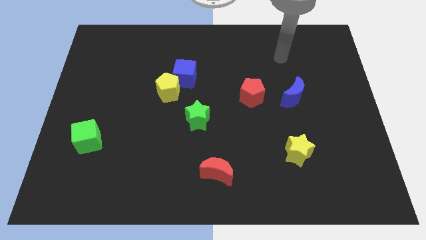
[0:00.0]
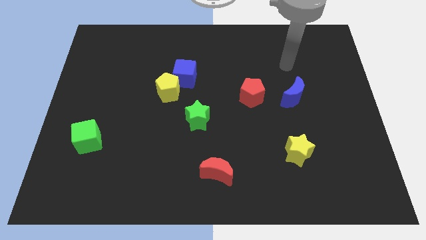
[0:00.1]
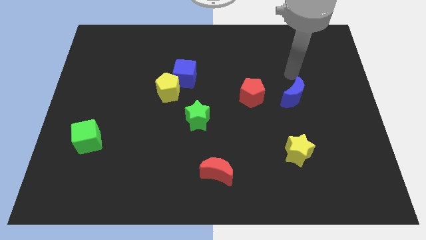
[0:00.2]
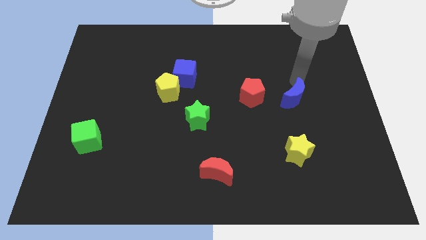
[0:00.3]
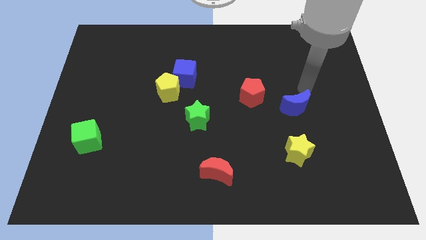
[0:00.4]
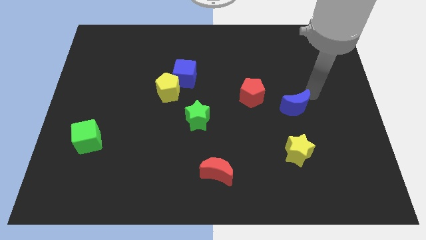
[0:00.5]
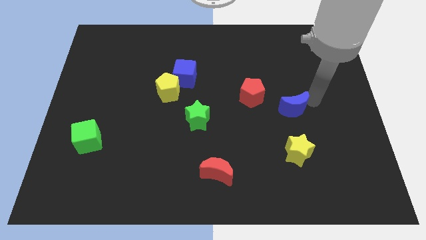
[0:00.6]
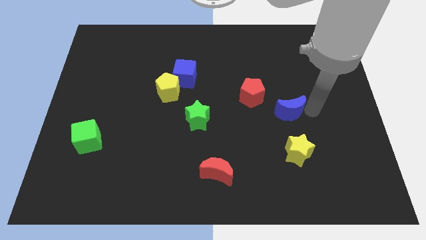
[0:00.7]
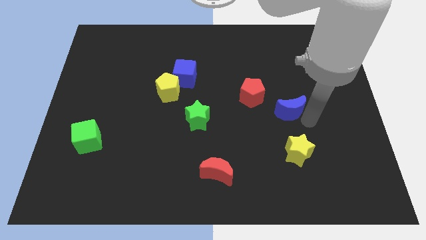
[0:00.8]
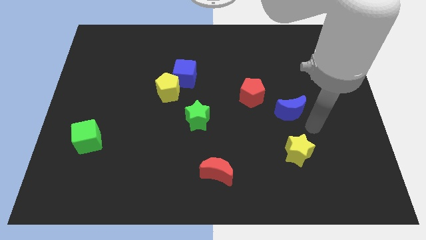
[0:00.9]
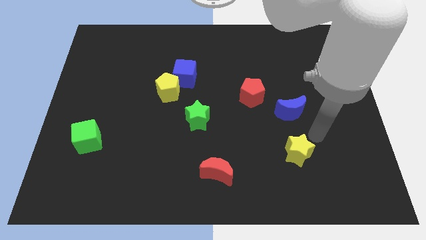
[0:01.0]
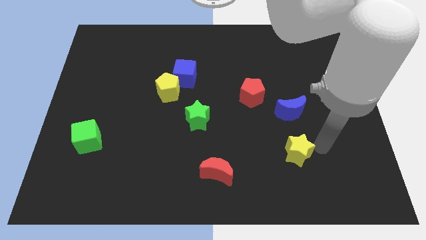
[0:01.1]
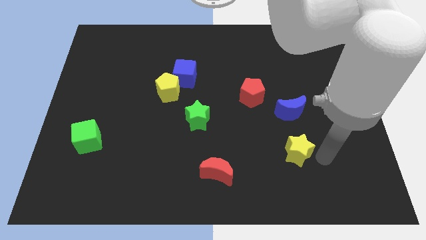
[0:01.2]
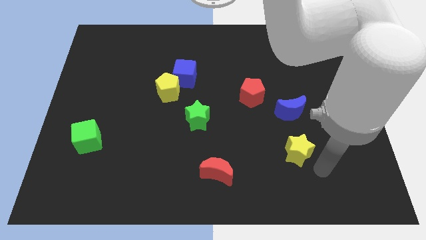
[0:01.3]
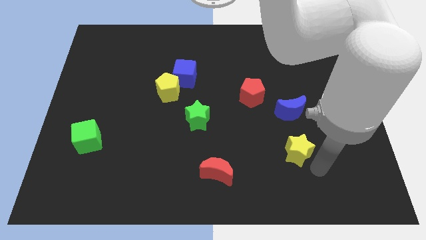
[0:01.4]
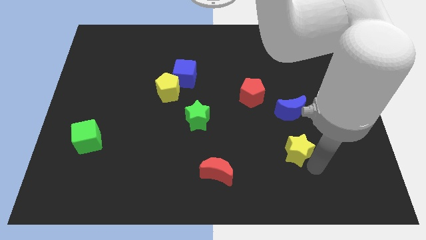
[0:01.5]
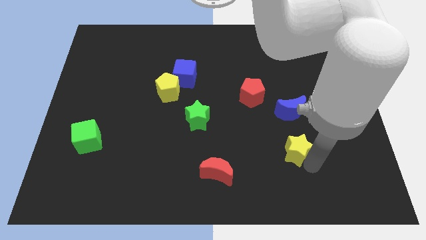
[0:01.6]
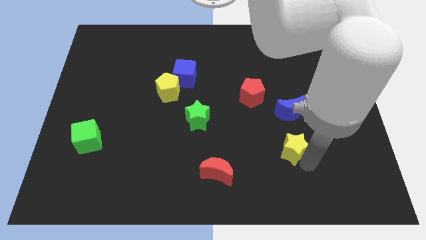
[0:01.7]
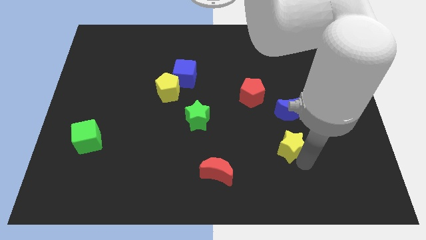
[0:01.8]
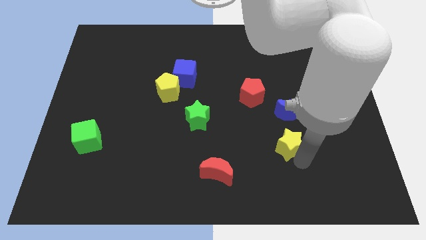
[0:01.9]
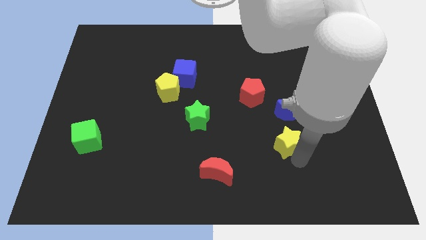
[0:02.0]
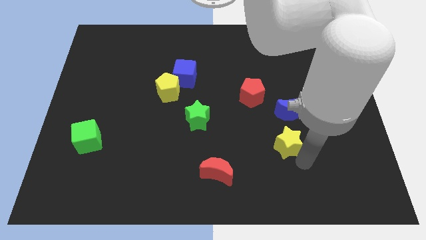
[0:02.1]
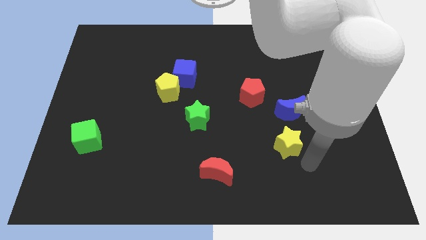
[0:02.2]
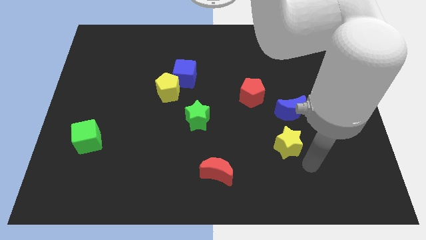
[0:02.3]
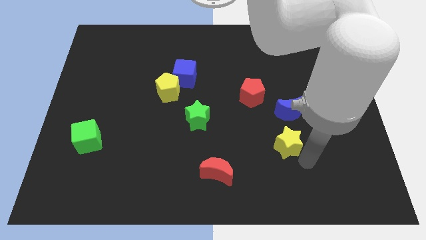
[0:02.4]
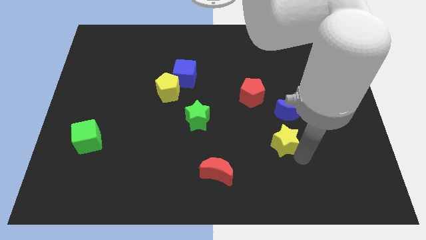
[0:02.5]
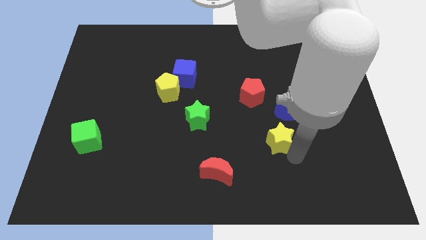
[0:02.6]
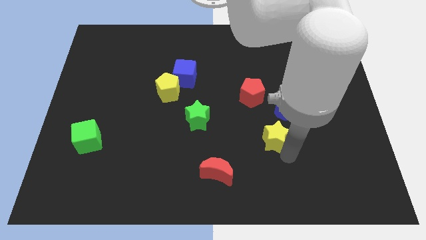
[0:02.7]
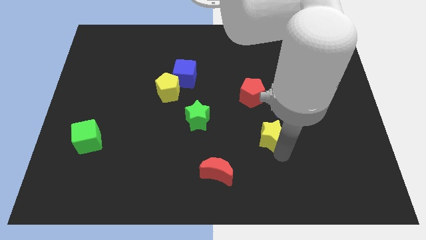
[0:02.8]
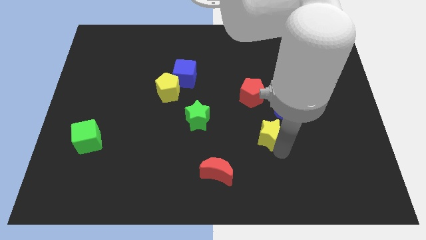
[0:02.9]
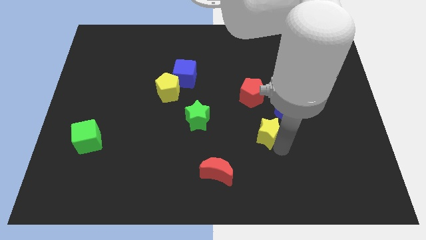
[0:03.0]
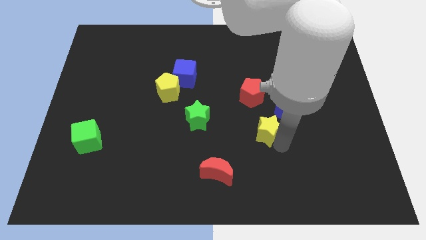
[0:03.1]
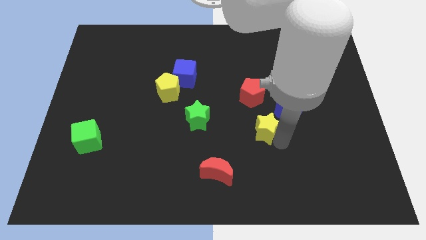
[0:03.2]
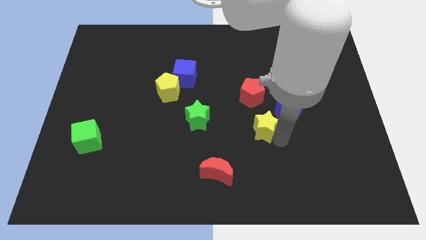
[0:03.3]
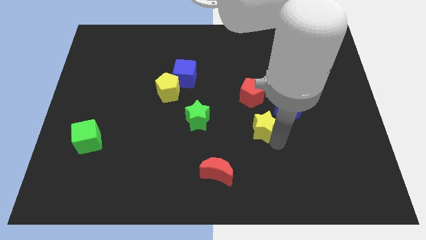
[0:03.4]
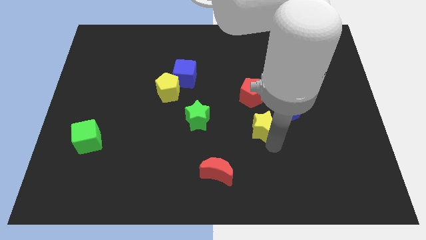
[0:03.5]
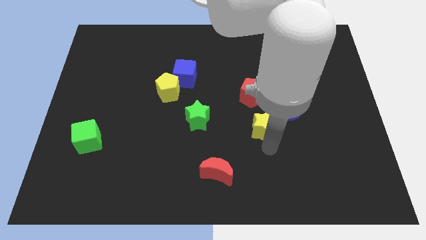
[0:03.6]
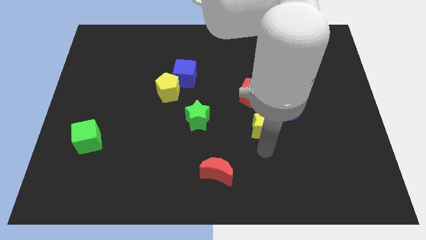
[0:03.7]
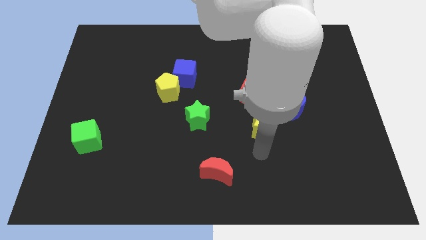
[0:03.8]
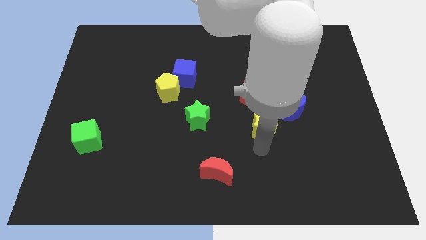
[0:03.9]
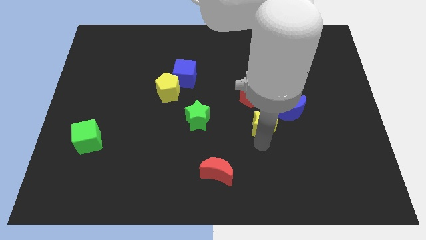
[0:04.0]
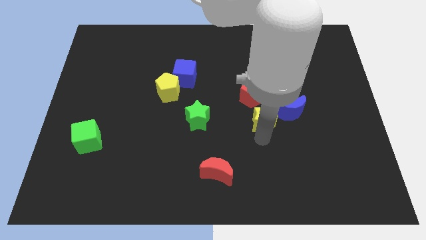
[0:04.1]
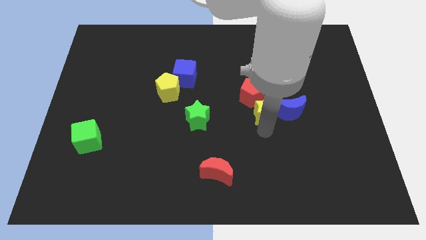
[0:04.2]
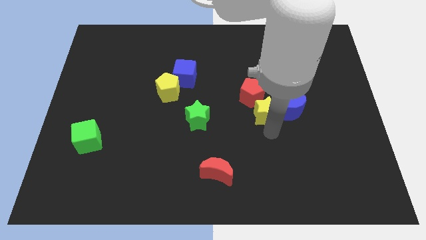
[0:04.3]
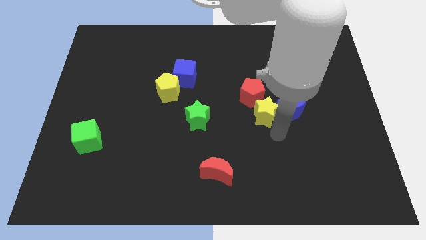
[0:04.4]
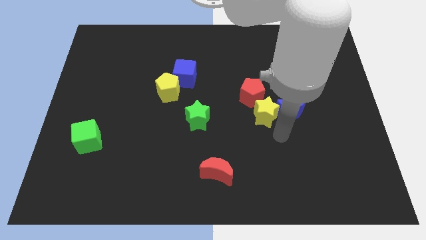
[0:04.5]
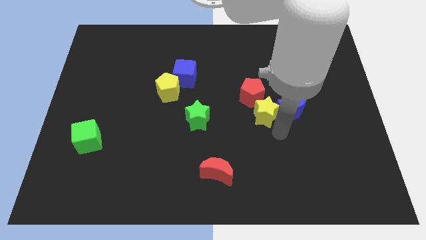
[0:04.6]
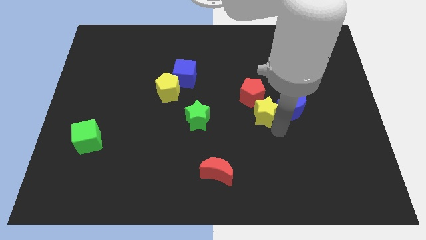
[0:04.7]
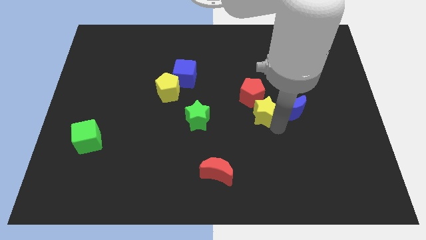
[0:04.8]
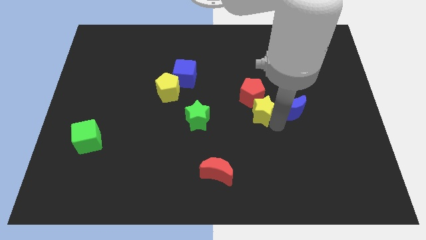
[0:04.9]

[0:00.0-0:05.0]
push the yellow star next to the red pentagon

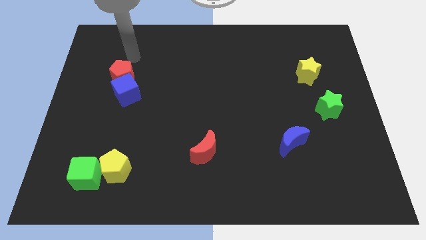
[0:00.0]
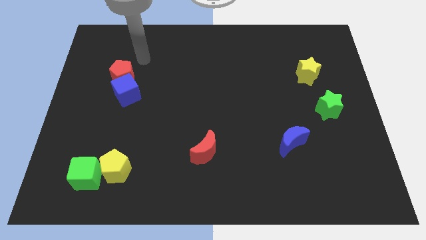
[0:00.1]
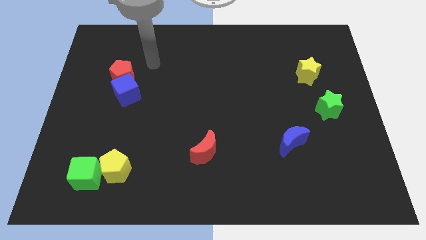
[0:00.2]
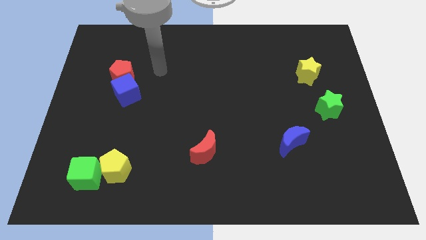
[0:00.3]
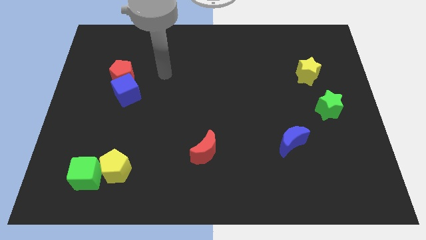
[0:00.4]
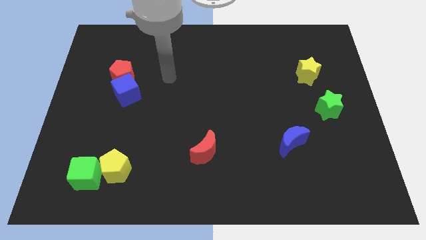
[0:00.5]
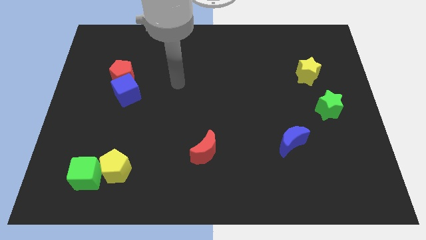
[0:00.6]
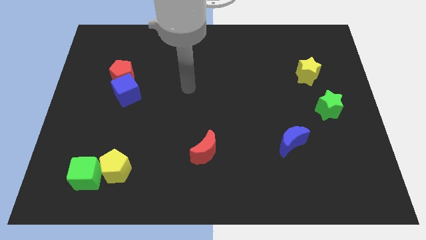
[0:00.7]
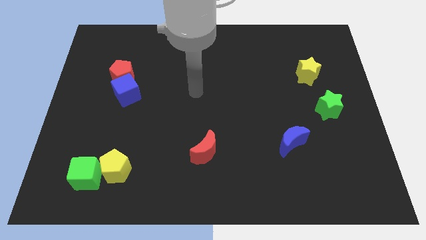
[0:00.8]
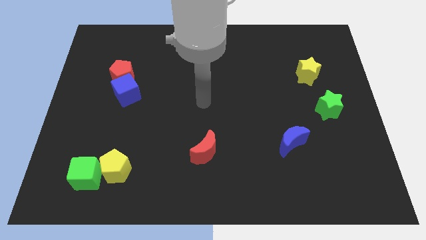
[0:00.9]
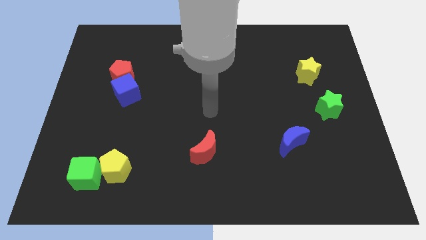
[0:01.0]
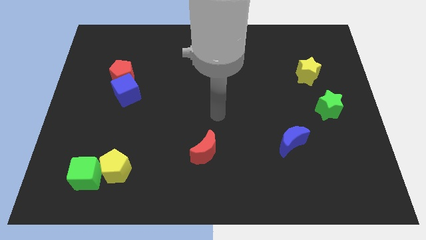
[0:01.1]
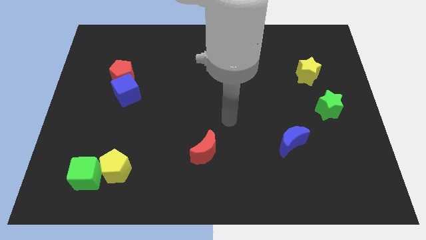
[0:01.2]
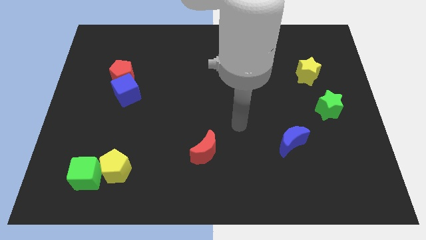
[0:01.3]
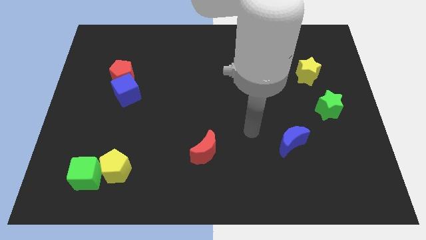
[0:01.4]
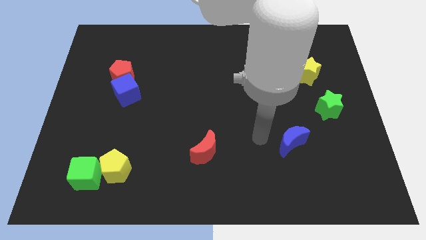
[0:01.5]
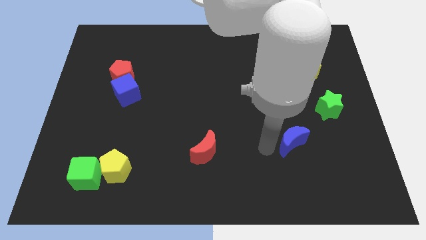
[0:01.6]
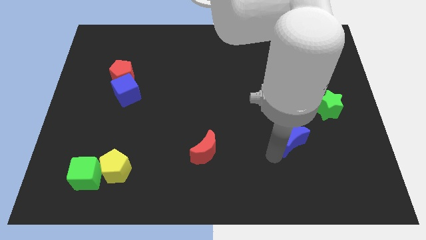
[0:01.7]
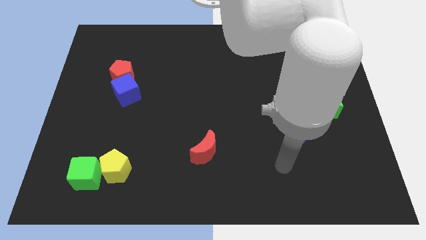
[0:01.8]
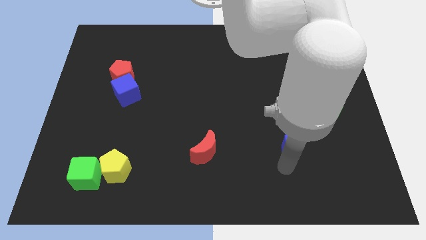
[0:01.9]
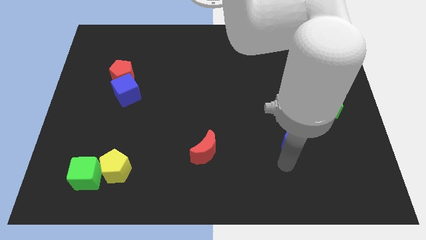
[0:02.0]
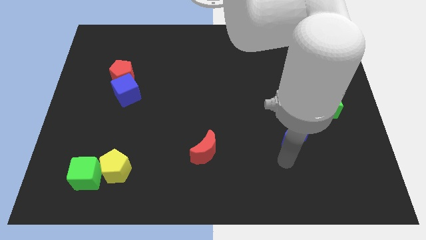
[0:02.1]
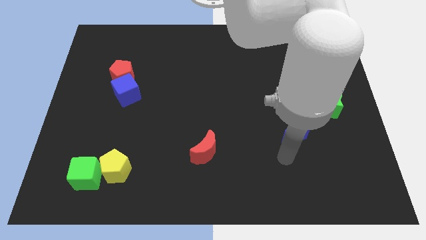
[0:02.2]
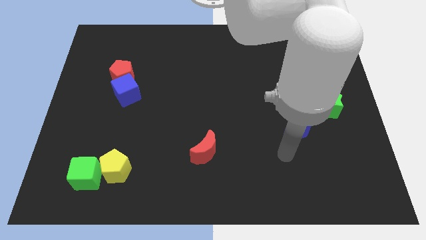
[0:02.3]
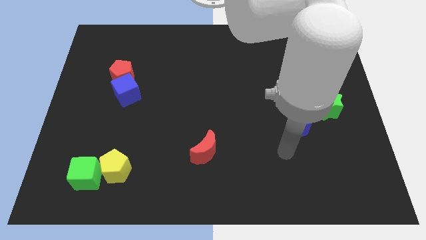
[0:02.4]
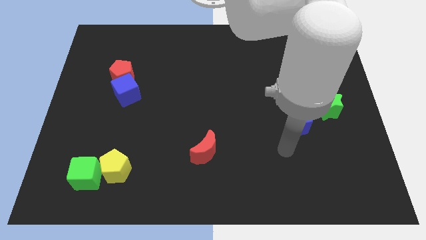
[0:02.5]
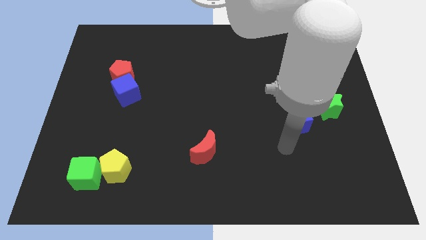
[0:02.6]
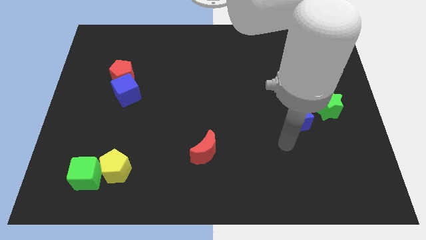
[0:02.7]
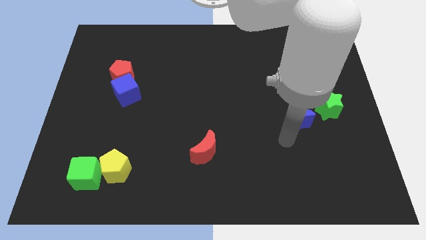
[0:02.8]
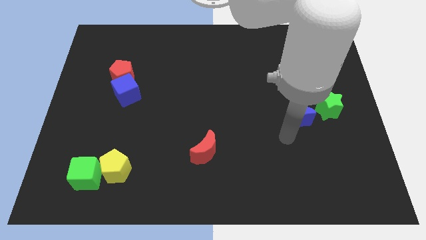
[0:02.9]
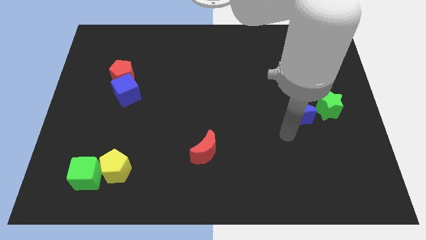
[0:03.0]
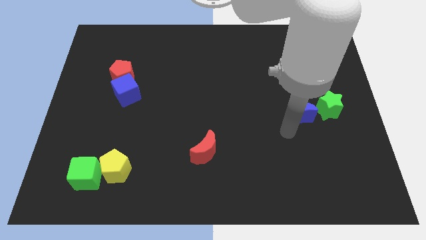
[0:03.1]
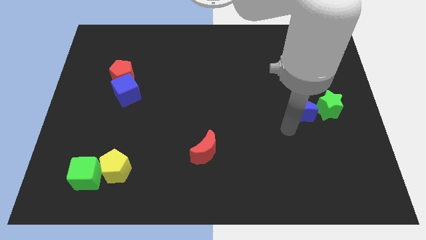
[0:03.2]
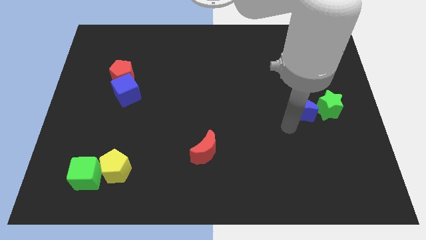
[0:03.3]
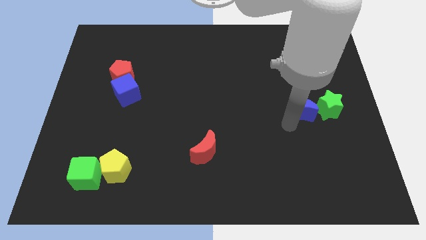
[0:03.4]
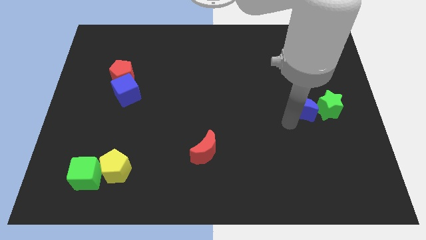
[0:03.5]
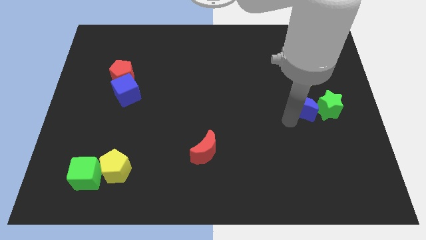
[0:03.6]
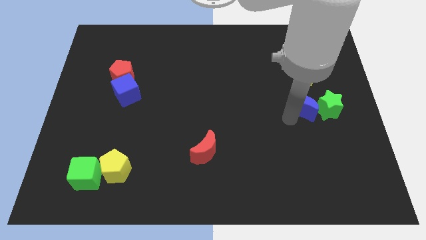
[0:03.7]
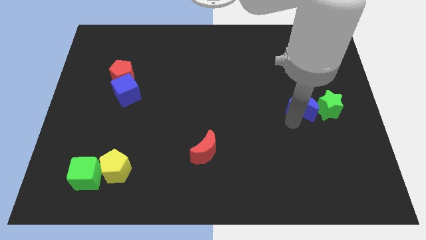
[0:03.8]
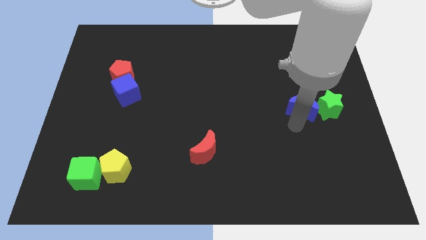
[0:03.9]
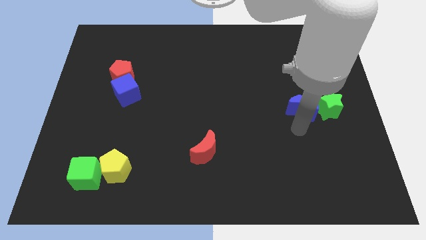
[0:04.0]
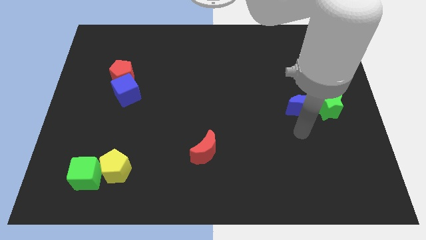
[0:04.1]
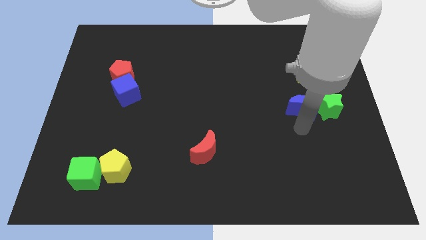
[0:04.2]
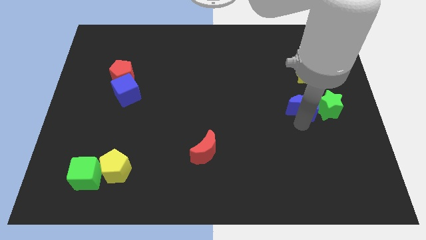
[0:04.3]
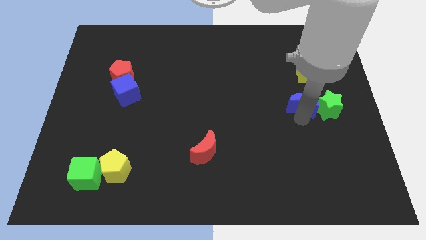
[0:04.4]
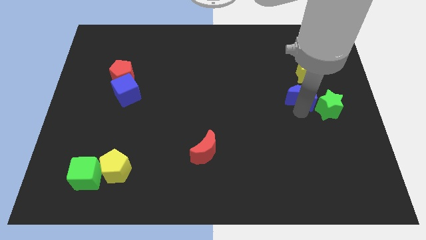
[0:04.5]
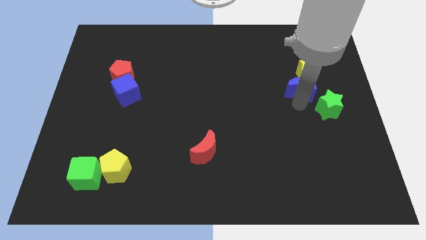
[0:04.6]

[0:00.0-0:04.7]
put the blue moon close to the yellow star
